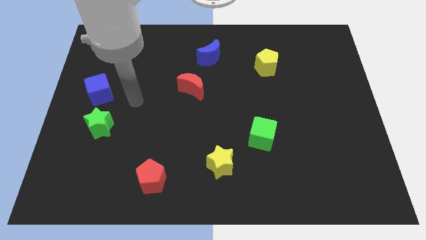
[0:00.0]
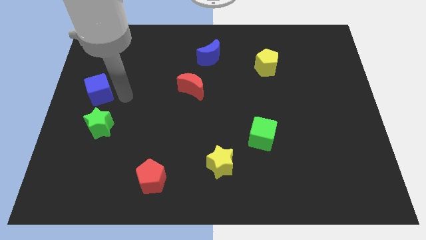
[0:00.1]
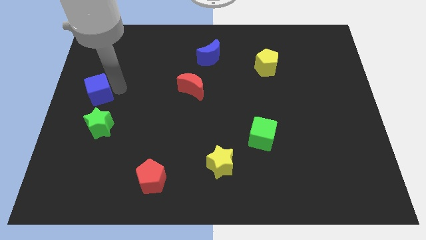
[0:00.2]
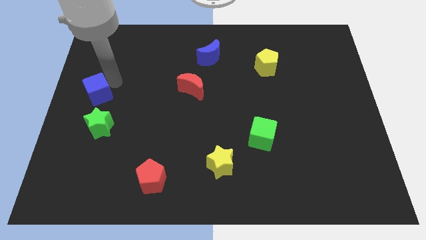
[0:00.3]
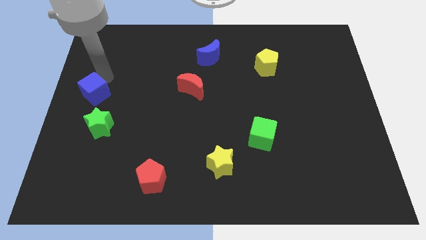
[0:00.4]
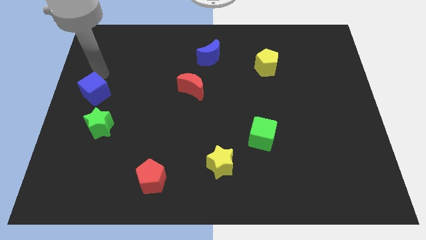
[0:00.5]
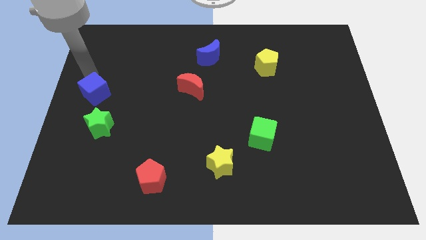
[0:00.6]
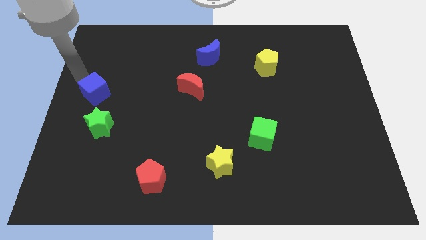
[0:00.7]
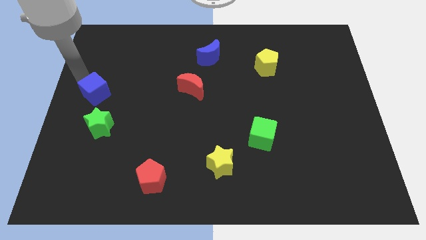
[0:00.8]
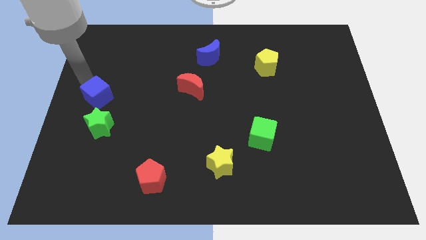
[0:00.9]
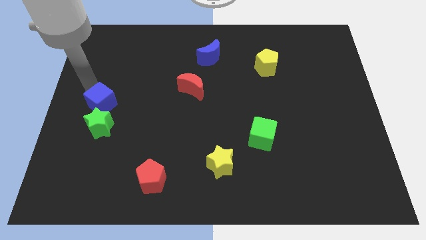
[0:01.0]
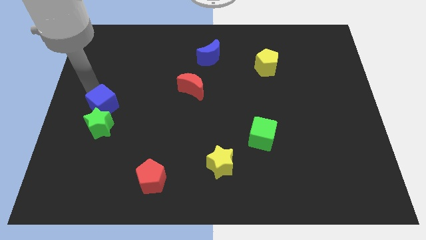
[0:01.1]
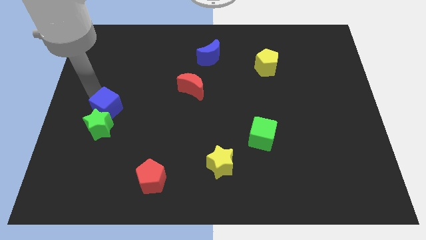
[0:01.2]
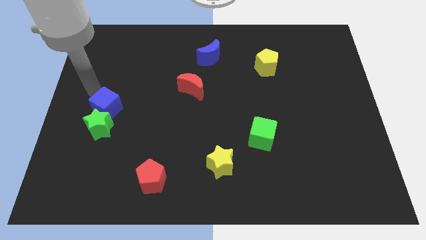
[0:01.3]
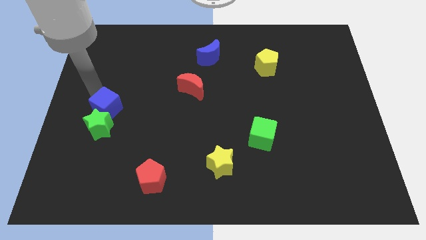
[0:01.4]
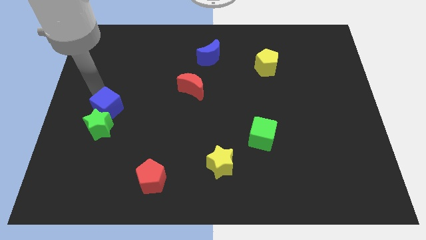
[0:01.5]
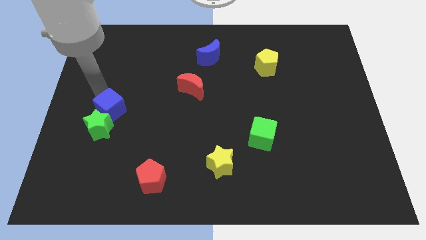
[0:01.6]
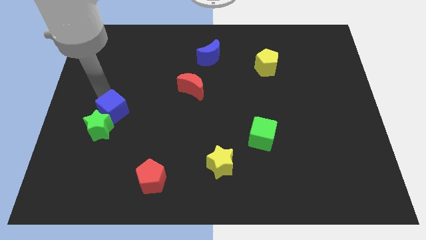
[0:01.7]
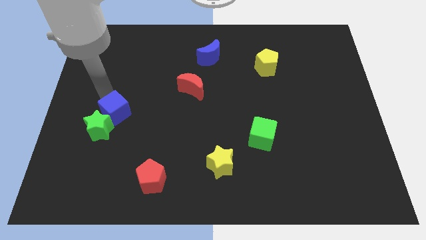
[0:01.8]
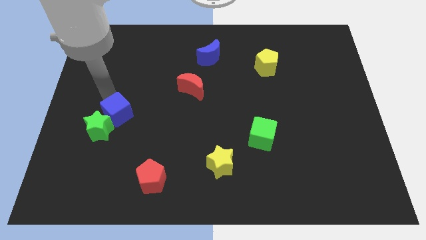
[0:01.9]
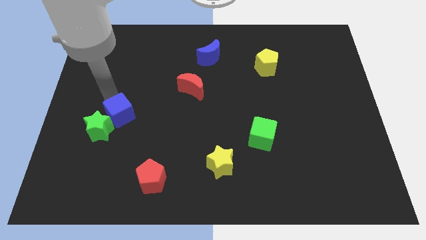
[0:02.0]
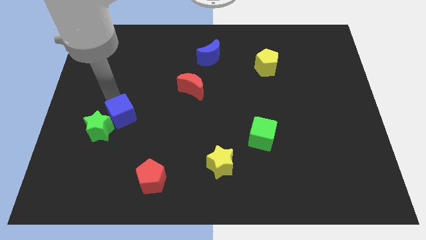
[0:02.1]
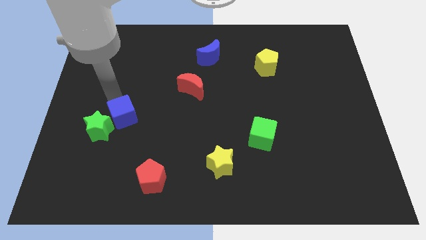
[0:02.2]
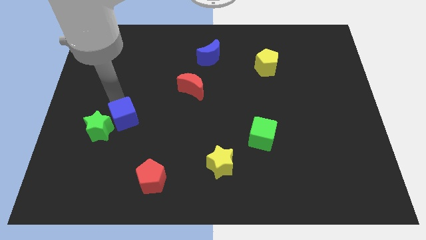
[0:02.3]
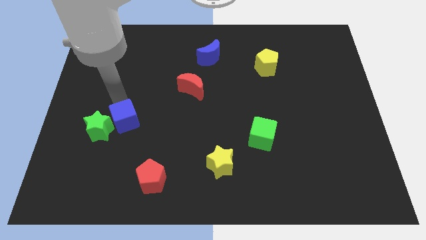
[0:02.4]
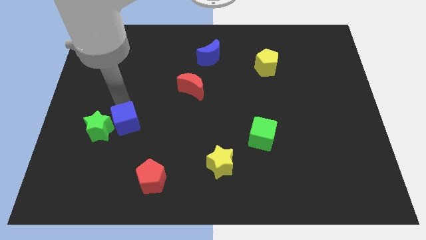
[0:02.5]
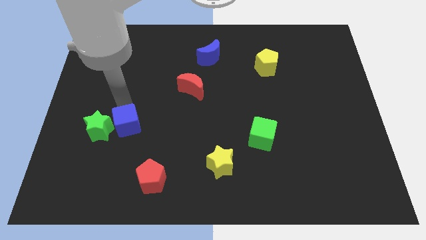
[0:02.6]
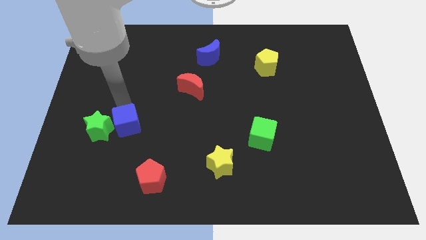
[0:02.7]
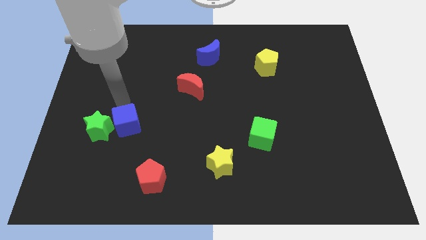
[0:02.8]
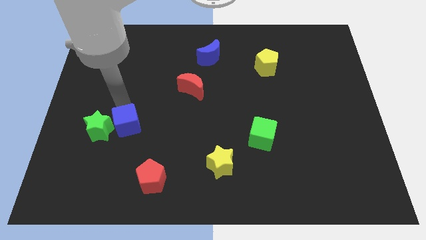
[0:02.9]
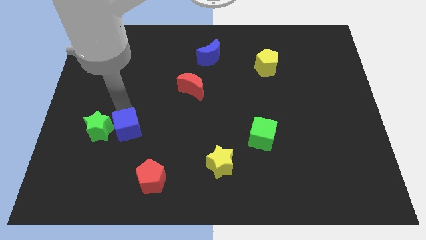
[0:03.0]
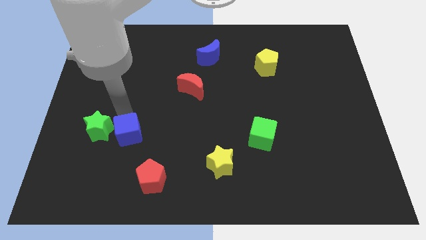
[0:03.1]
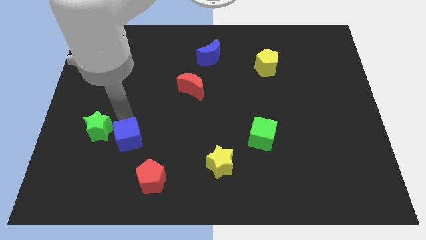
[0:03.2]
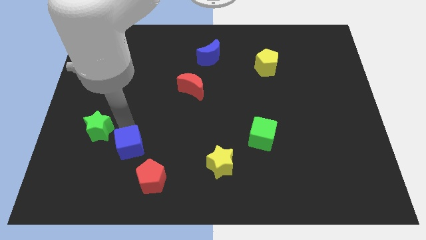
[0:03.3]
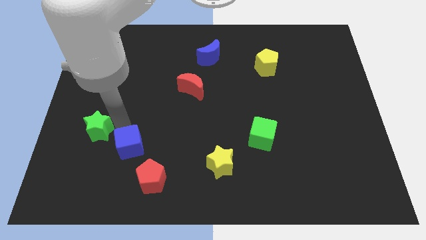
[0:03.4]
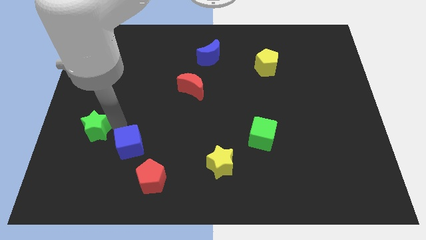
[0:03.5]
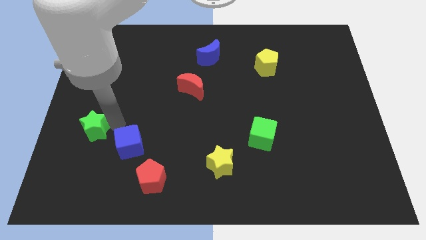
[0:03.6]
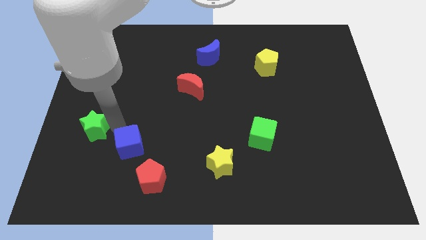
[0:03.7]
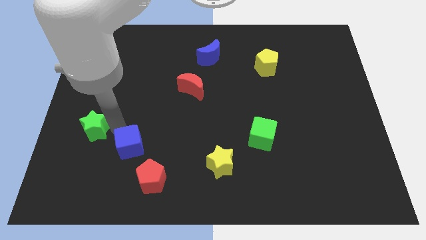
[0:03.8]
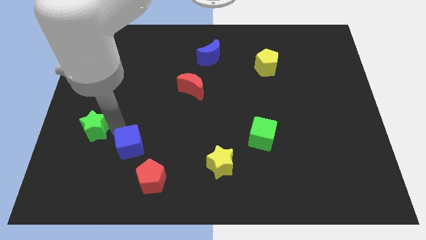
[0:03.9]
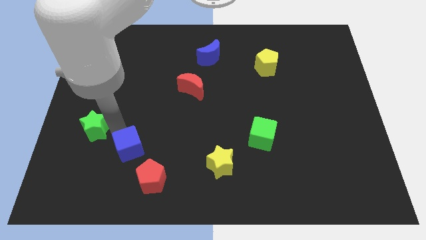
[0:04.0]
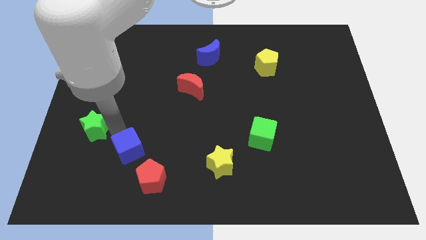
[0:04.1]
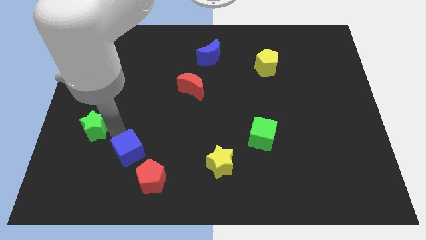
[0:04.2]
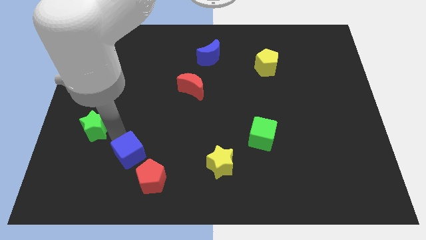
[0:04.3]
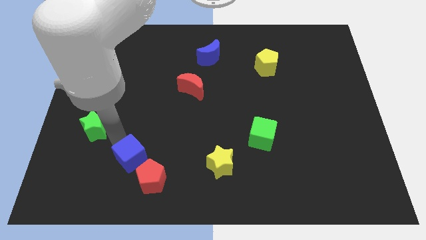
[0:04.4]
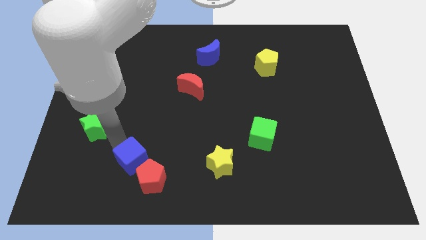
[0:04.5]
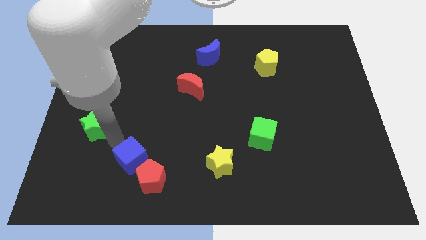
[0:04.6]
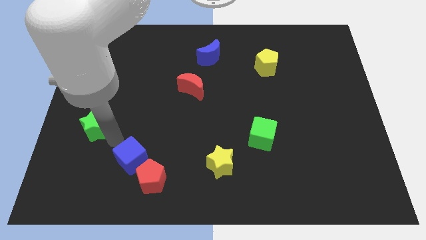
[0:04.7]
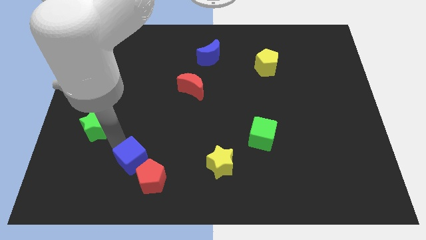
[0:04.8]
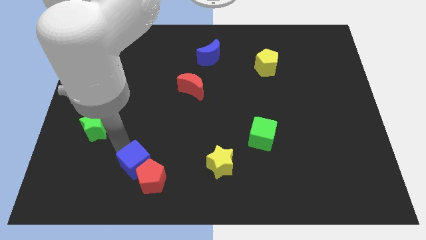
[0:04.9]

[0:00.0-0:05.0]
push the blue cube next to the red pentagon

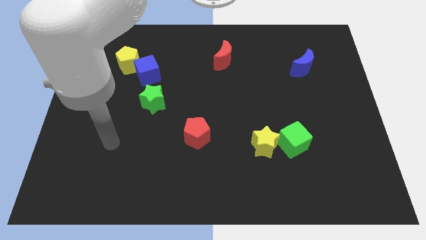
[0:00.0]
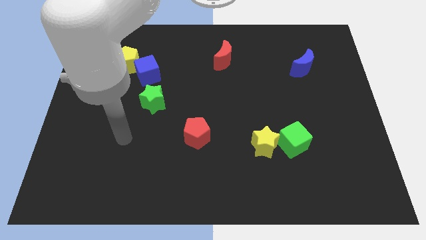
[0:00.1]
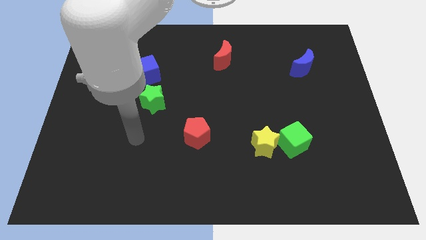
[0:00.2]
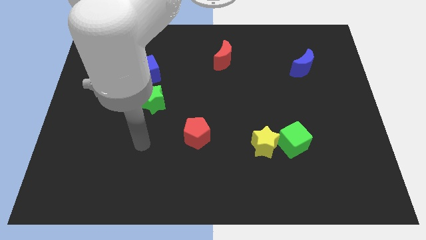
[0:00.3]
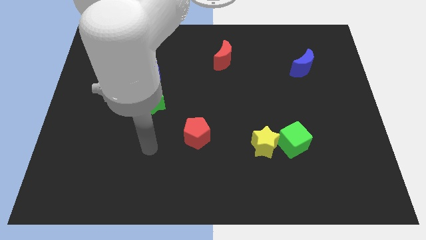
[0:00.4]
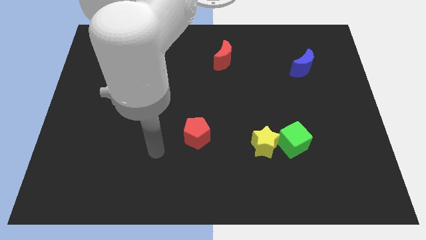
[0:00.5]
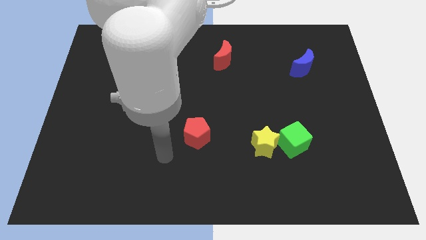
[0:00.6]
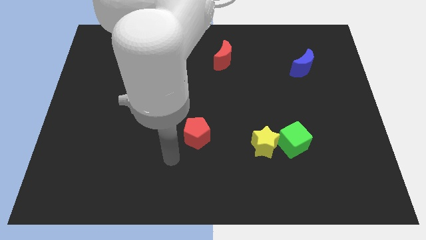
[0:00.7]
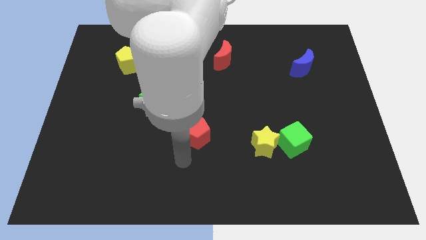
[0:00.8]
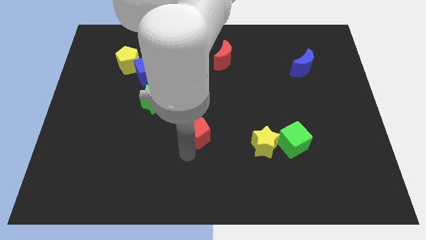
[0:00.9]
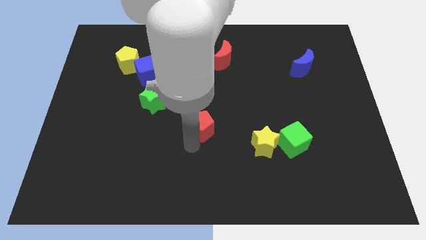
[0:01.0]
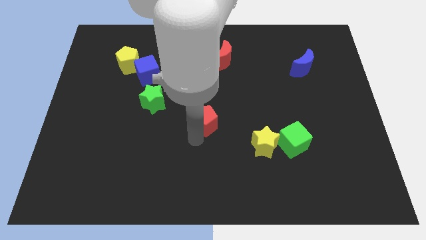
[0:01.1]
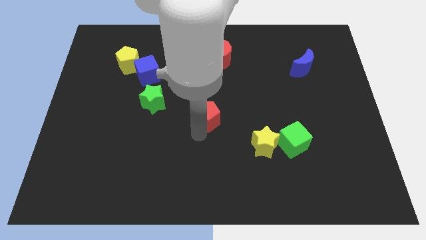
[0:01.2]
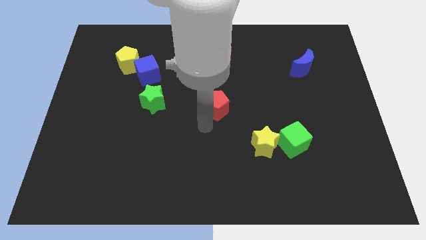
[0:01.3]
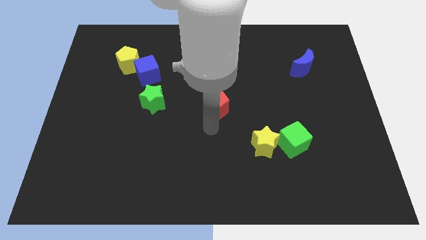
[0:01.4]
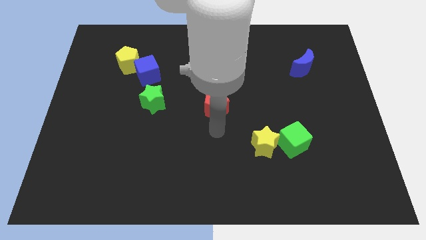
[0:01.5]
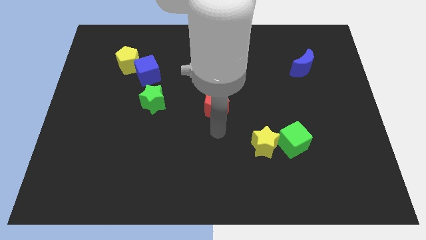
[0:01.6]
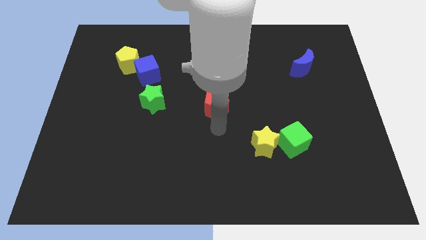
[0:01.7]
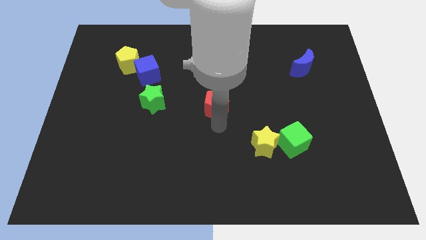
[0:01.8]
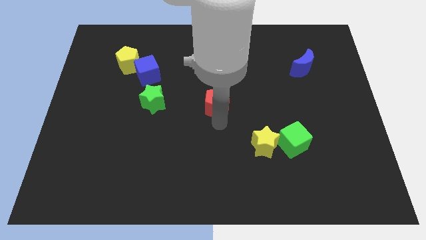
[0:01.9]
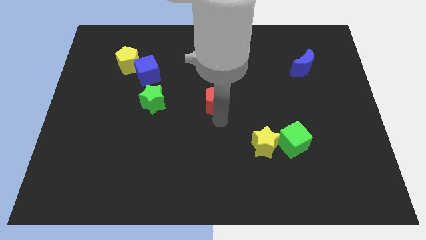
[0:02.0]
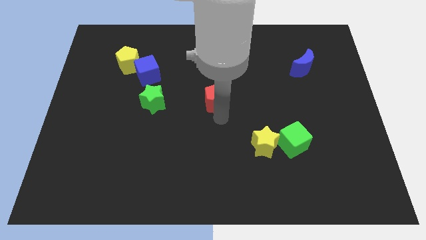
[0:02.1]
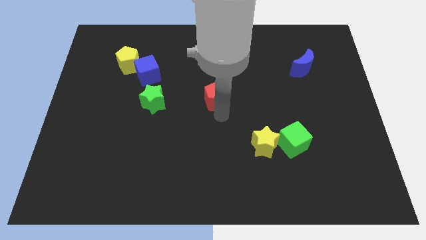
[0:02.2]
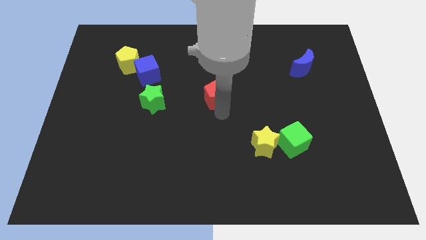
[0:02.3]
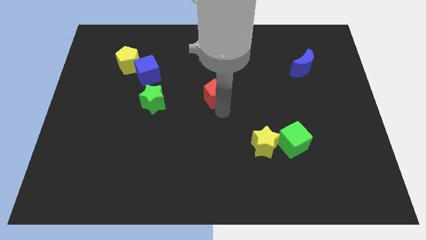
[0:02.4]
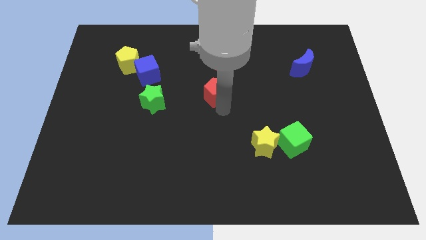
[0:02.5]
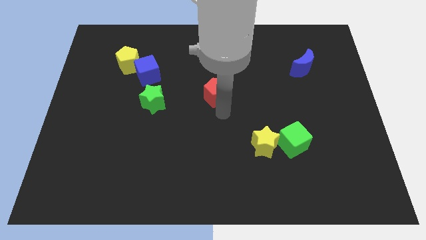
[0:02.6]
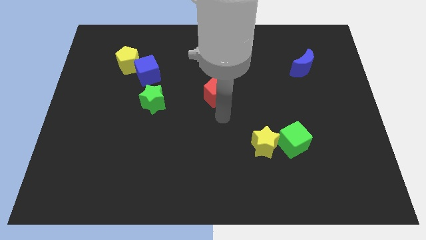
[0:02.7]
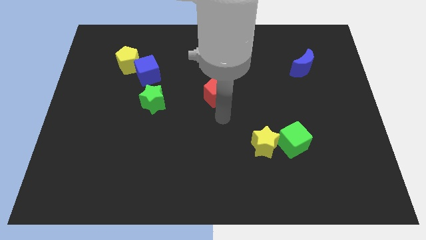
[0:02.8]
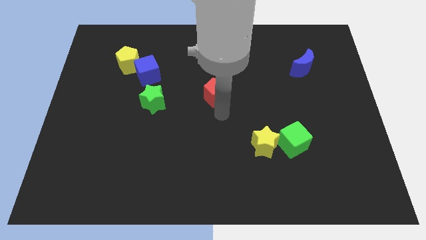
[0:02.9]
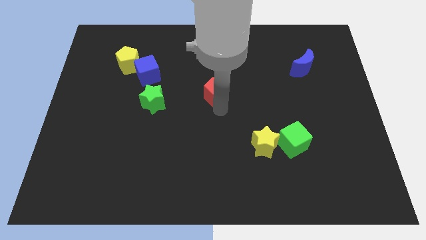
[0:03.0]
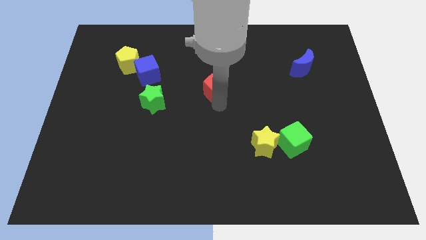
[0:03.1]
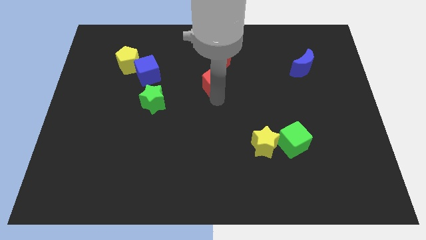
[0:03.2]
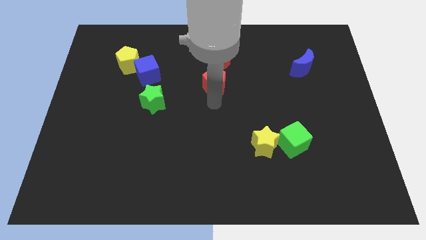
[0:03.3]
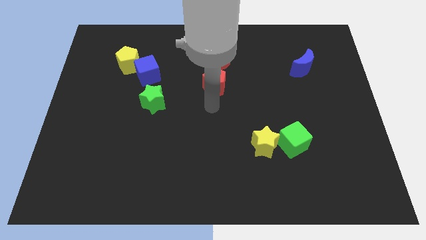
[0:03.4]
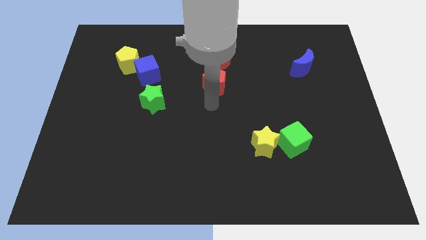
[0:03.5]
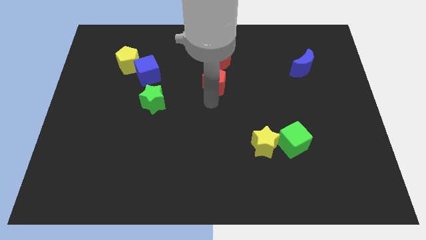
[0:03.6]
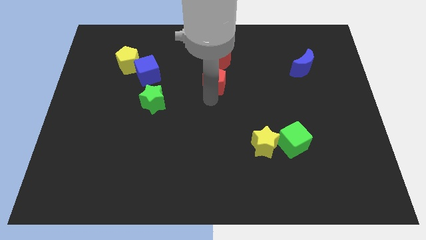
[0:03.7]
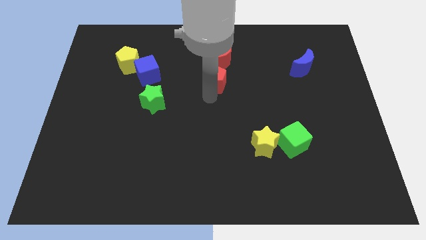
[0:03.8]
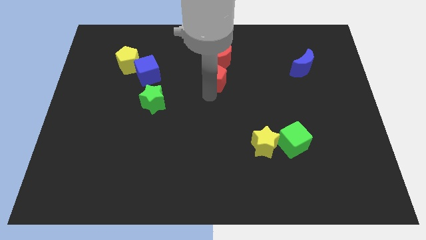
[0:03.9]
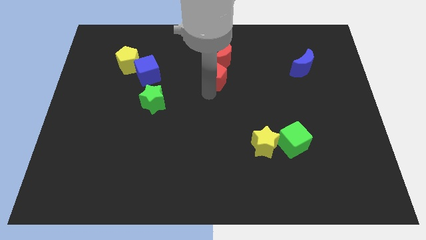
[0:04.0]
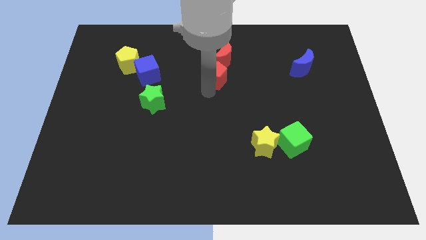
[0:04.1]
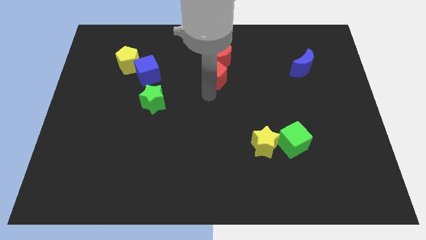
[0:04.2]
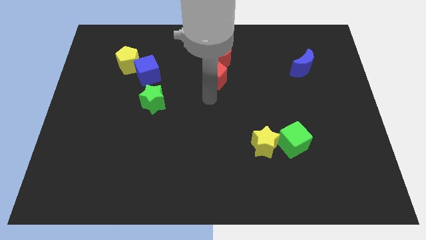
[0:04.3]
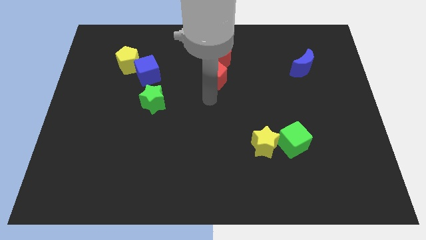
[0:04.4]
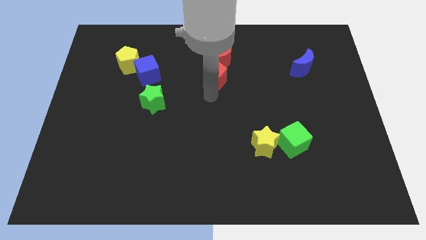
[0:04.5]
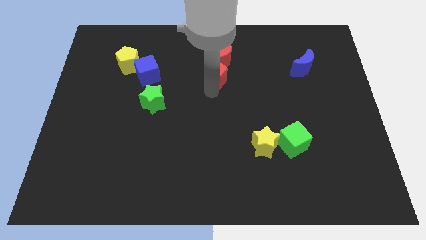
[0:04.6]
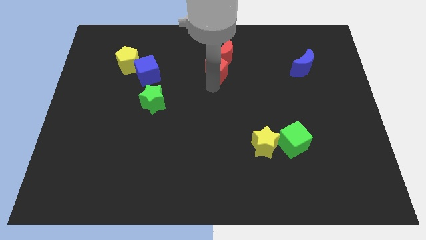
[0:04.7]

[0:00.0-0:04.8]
slide the red pentagon close to the red moon
